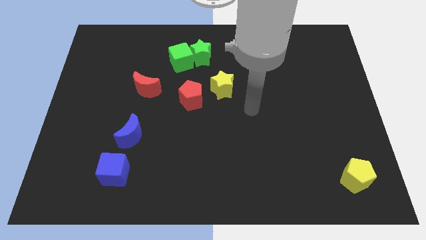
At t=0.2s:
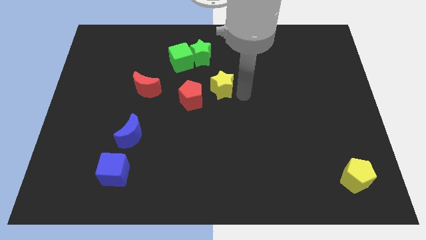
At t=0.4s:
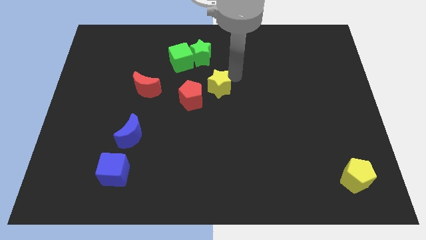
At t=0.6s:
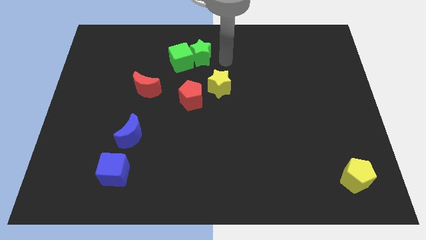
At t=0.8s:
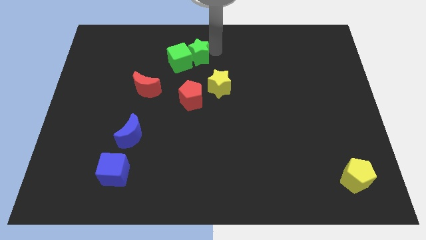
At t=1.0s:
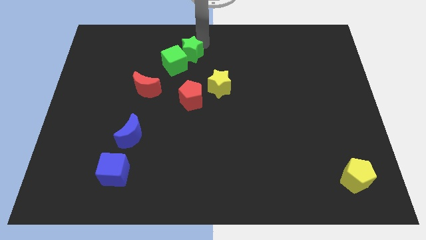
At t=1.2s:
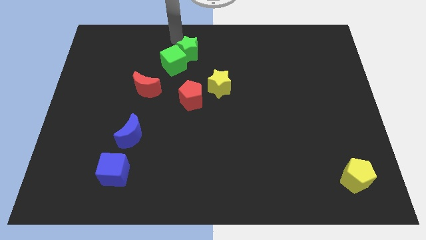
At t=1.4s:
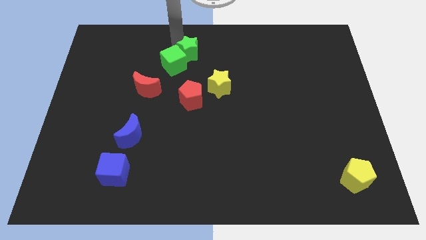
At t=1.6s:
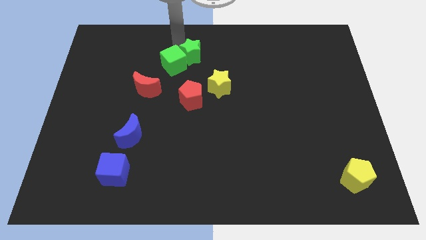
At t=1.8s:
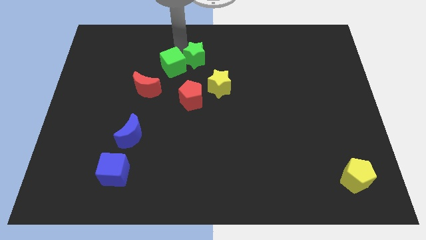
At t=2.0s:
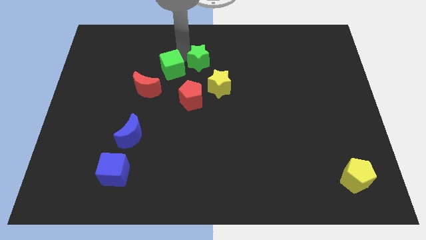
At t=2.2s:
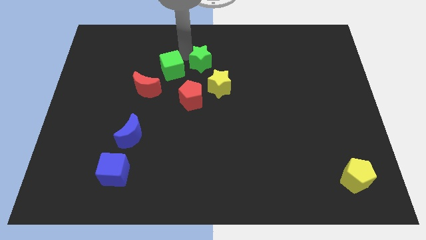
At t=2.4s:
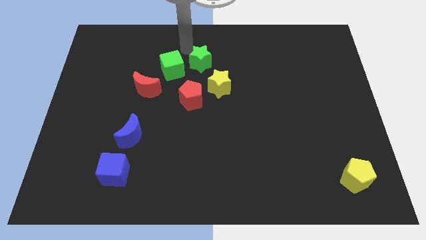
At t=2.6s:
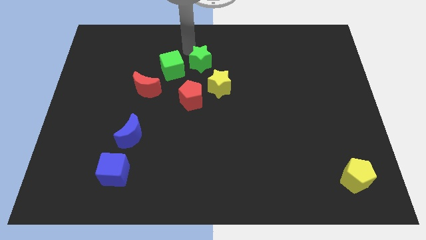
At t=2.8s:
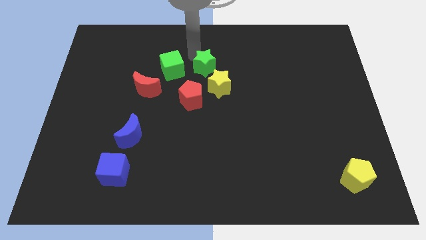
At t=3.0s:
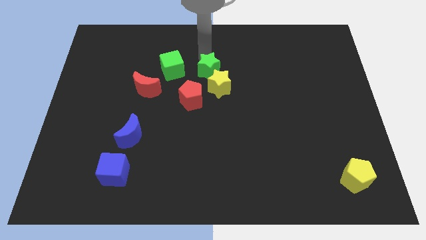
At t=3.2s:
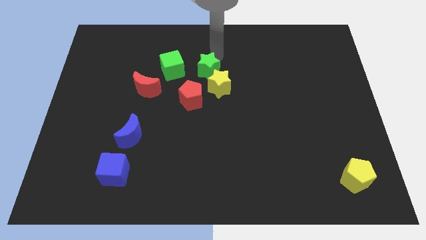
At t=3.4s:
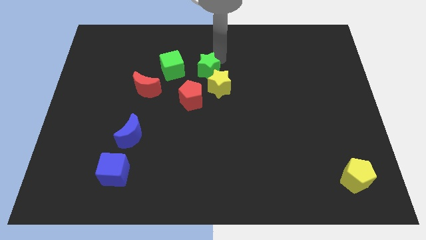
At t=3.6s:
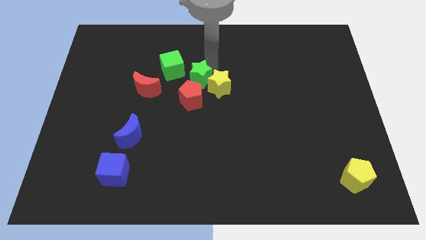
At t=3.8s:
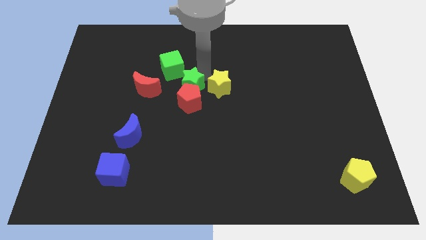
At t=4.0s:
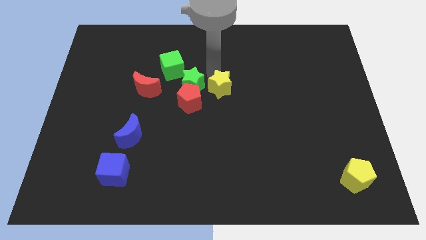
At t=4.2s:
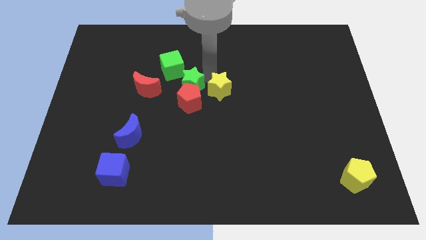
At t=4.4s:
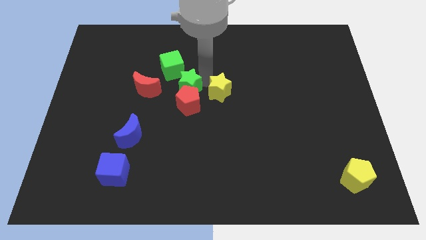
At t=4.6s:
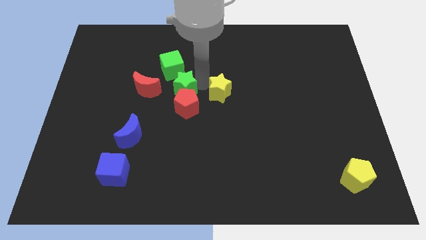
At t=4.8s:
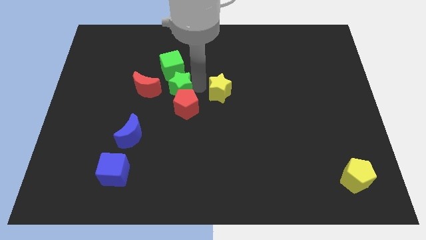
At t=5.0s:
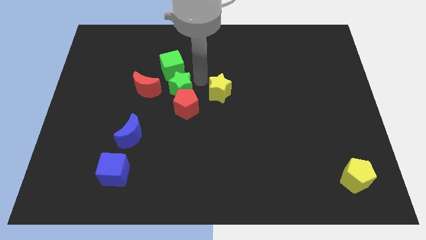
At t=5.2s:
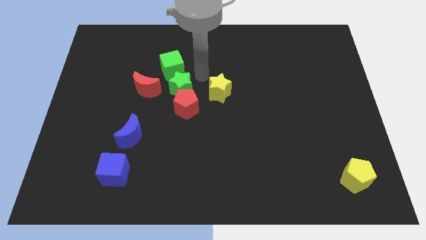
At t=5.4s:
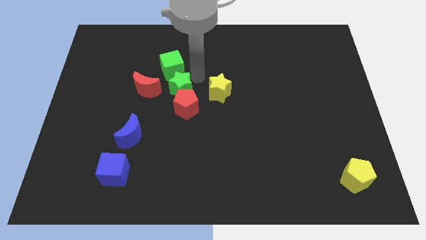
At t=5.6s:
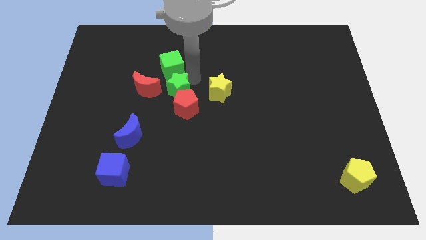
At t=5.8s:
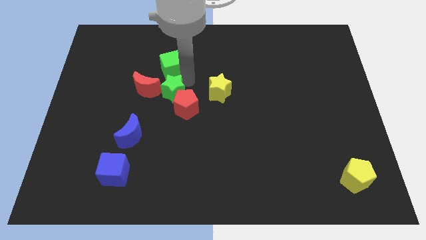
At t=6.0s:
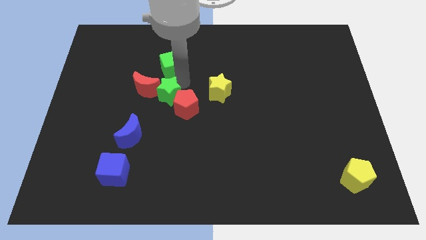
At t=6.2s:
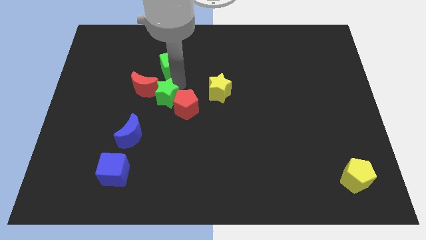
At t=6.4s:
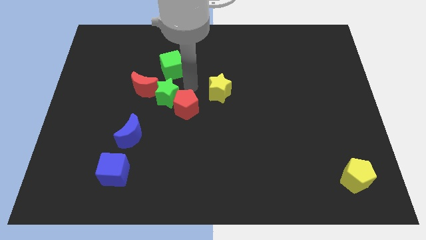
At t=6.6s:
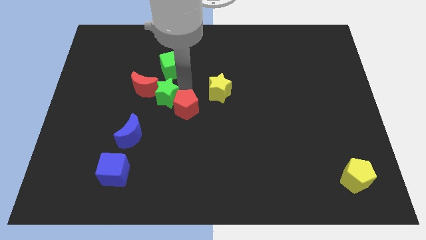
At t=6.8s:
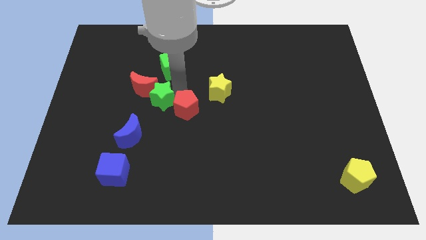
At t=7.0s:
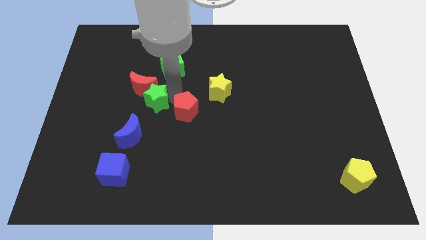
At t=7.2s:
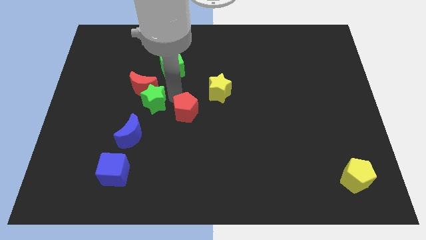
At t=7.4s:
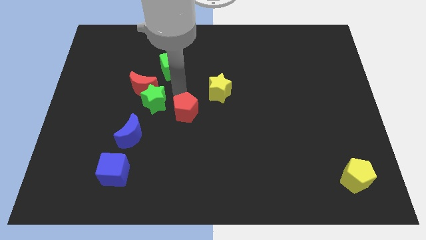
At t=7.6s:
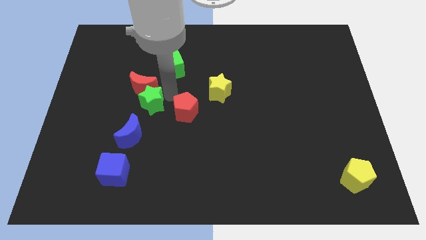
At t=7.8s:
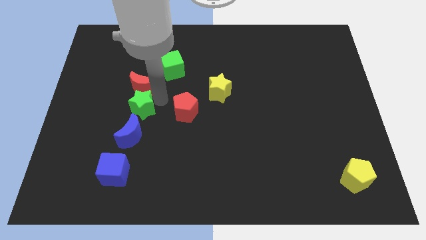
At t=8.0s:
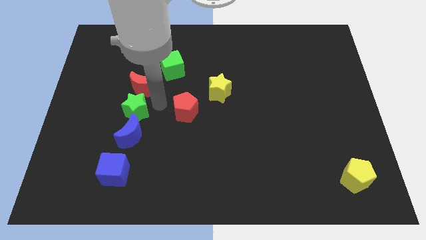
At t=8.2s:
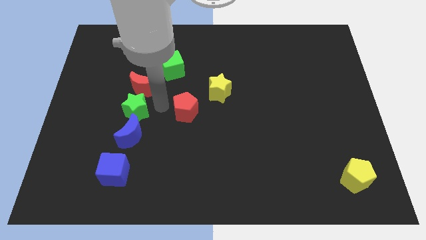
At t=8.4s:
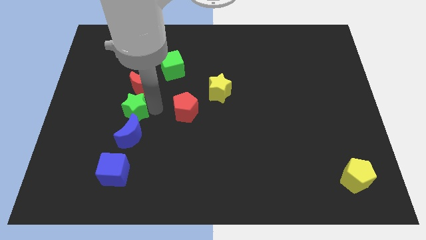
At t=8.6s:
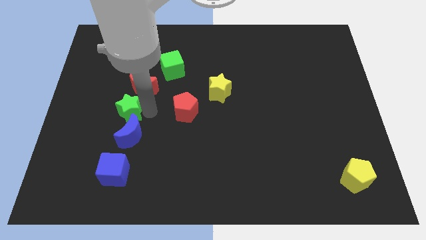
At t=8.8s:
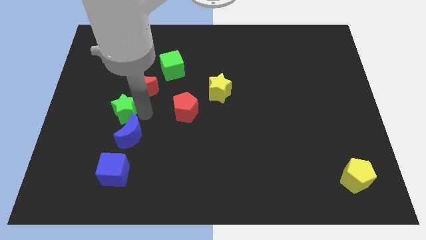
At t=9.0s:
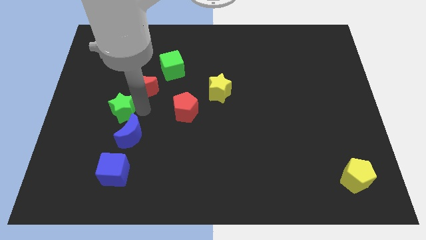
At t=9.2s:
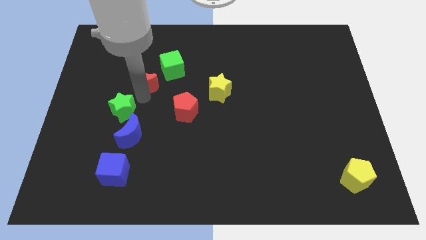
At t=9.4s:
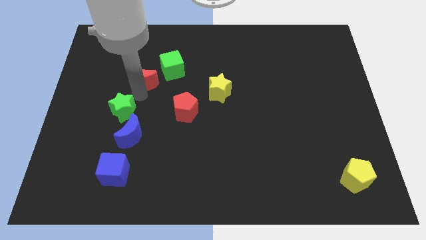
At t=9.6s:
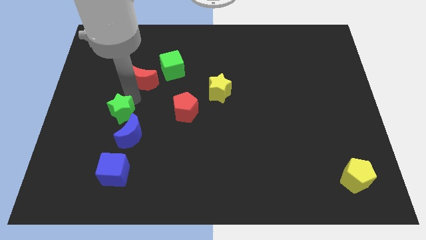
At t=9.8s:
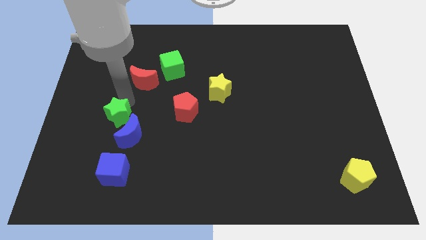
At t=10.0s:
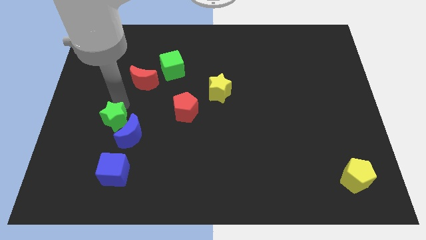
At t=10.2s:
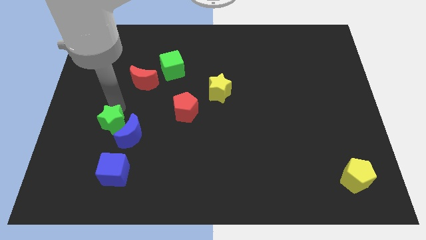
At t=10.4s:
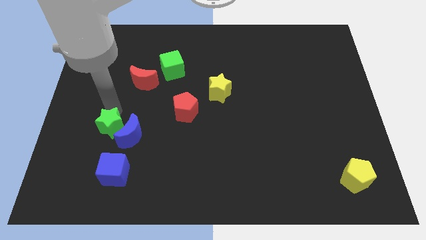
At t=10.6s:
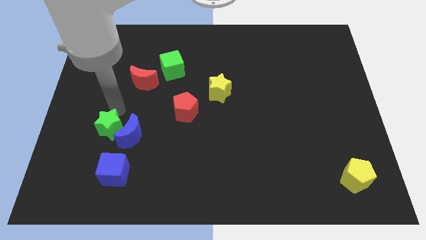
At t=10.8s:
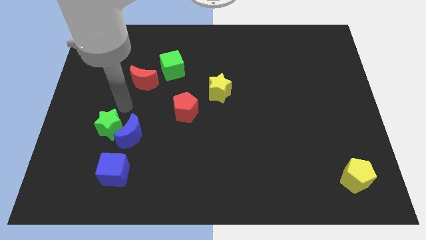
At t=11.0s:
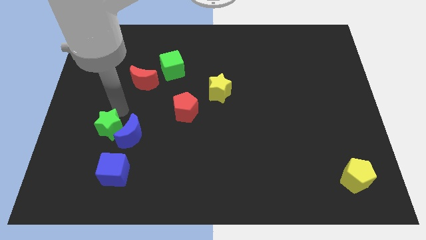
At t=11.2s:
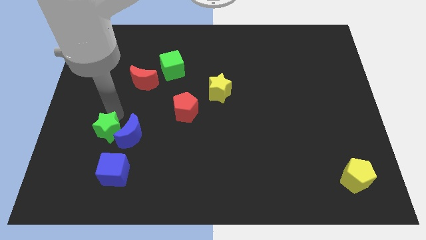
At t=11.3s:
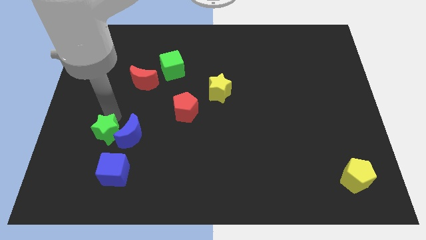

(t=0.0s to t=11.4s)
slide the green star to the top left of the blue cube

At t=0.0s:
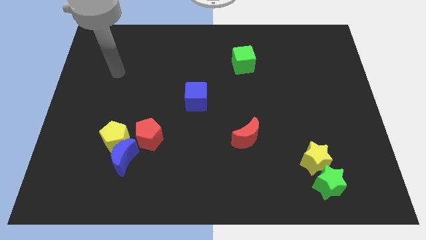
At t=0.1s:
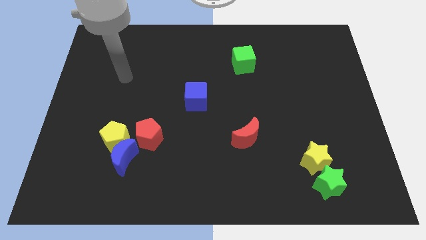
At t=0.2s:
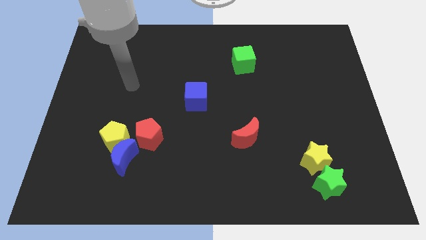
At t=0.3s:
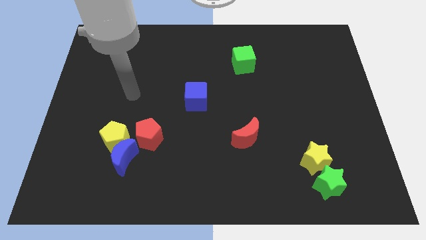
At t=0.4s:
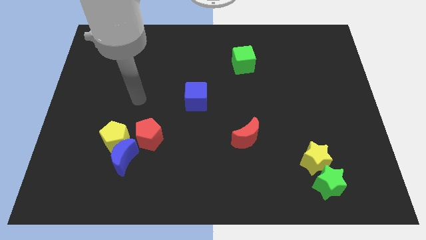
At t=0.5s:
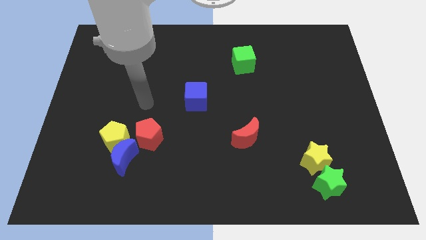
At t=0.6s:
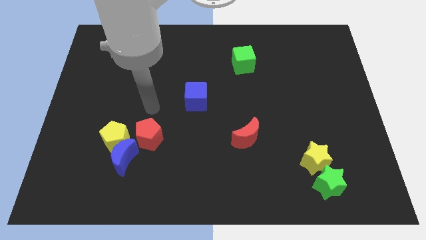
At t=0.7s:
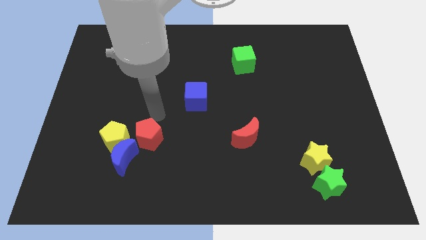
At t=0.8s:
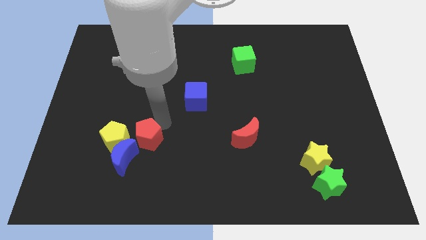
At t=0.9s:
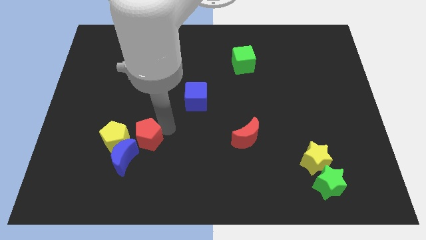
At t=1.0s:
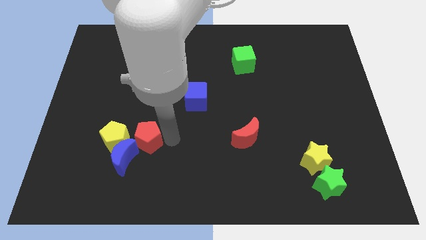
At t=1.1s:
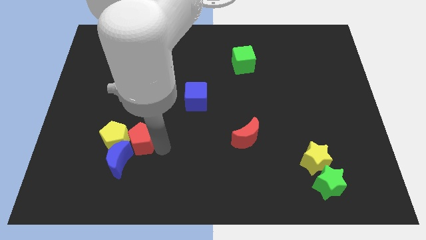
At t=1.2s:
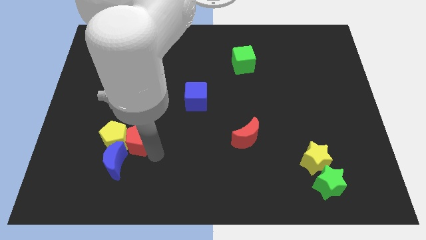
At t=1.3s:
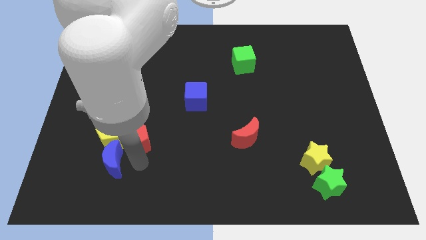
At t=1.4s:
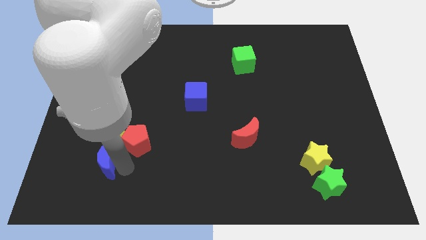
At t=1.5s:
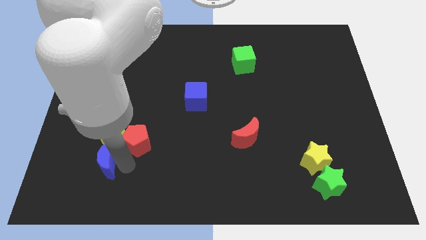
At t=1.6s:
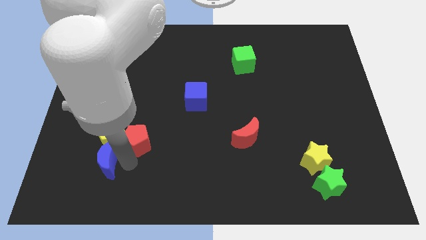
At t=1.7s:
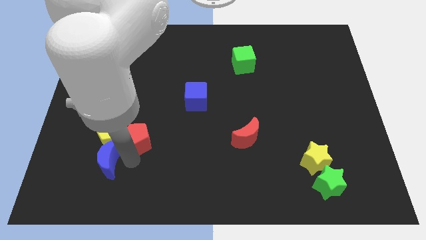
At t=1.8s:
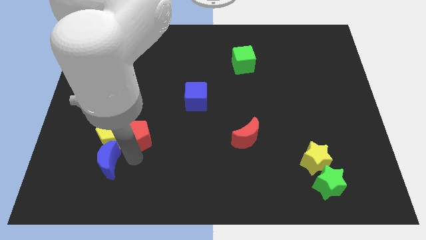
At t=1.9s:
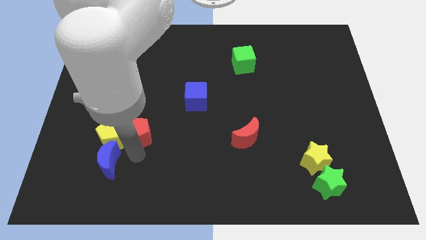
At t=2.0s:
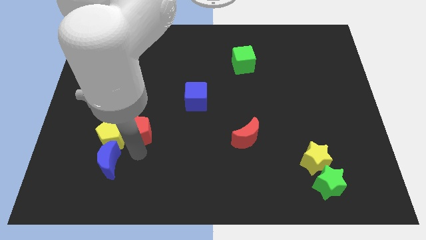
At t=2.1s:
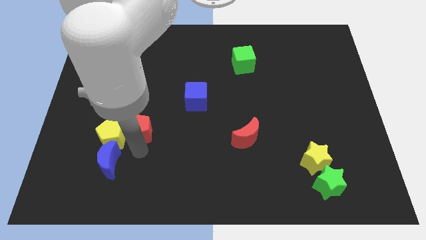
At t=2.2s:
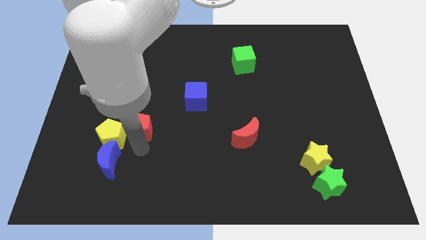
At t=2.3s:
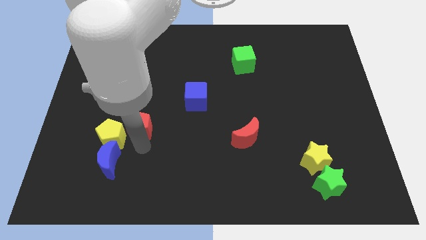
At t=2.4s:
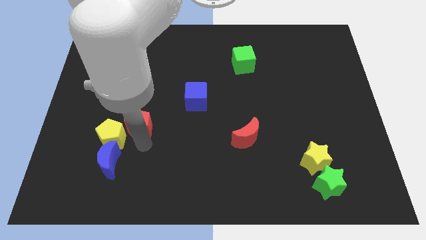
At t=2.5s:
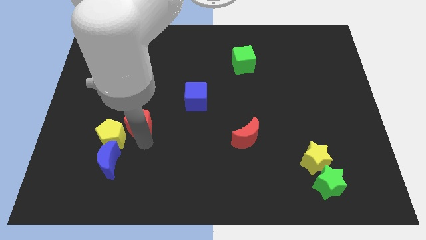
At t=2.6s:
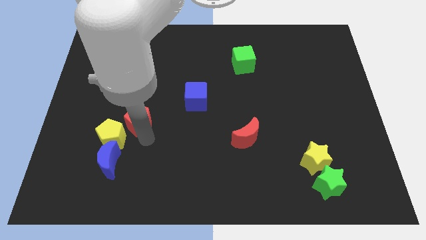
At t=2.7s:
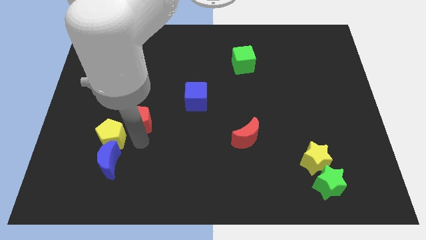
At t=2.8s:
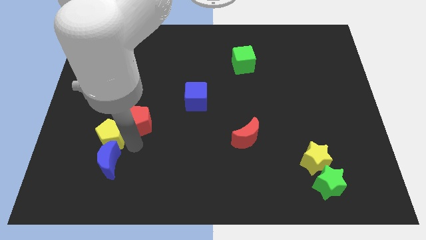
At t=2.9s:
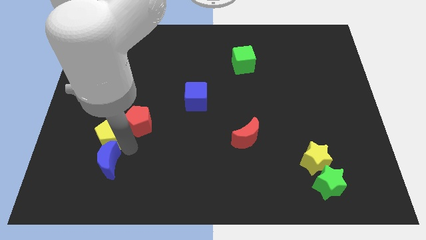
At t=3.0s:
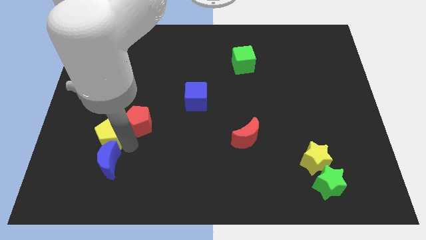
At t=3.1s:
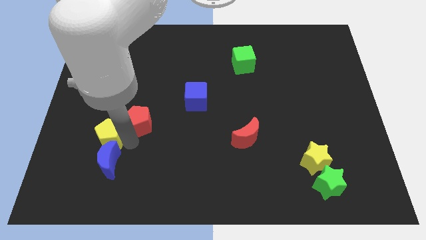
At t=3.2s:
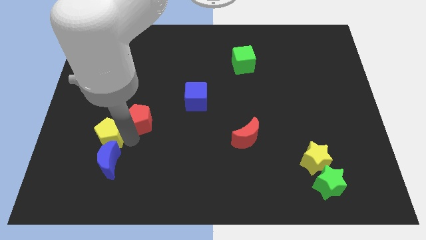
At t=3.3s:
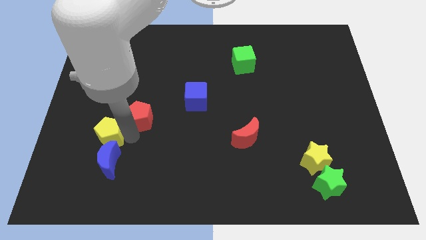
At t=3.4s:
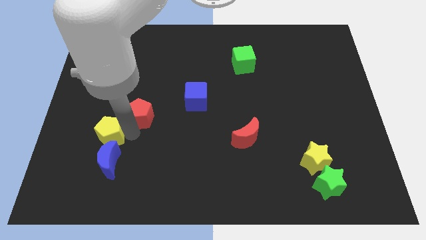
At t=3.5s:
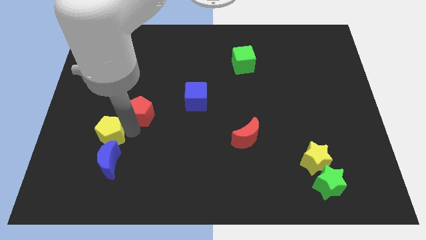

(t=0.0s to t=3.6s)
put the red pentagon to the left side of the blue cube
